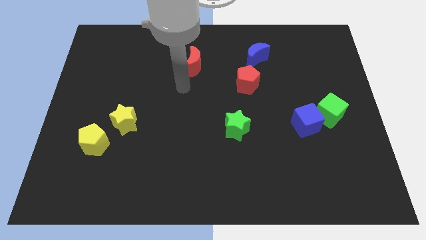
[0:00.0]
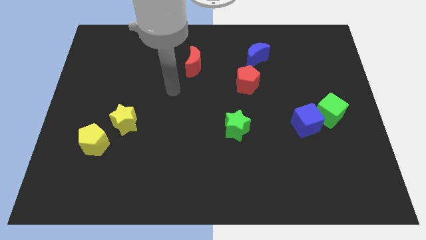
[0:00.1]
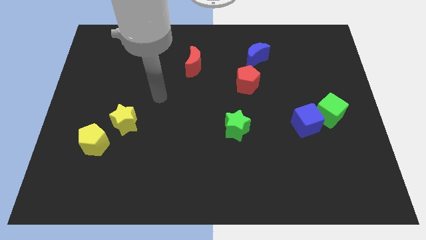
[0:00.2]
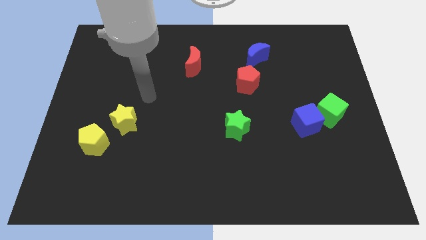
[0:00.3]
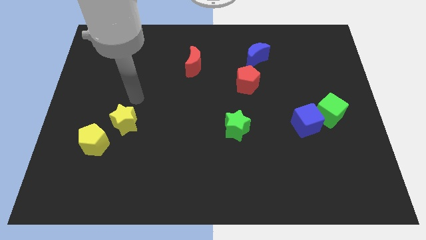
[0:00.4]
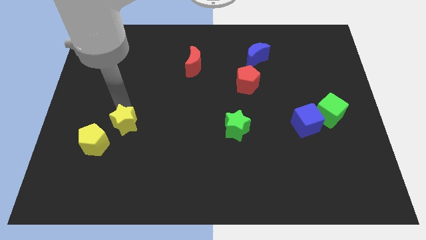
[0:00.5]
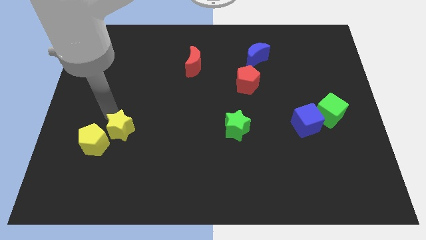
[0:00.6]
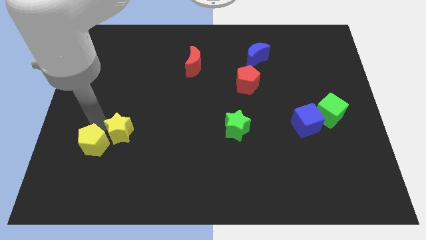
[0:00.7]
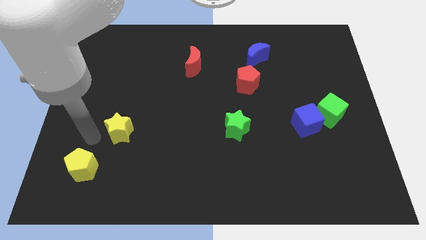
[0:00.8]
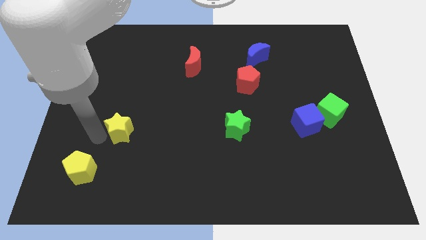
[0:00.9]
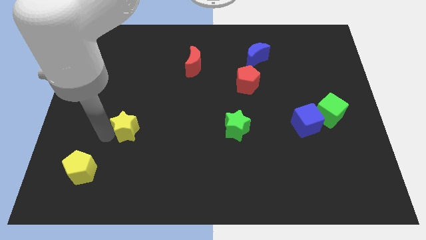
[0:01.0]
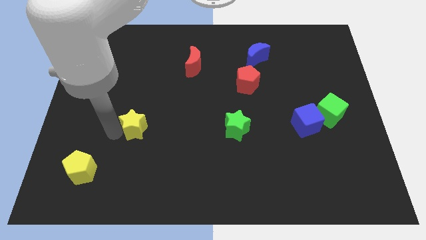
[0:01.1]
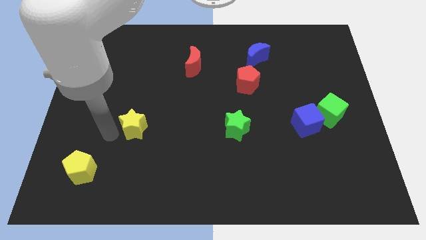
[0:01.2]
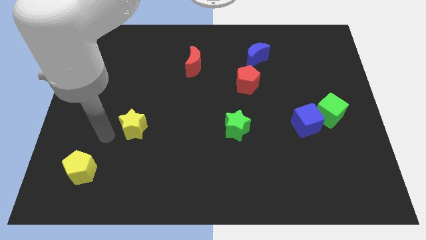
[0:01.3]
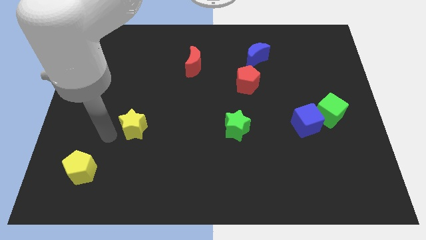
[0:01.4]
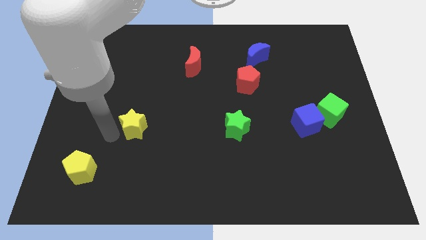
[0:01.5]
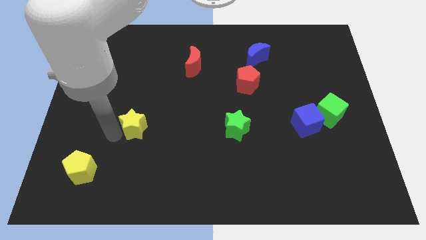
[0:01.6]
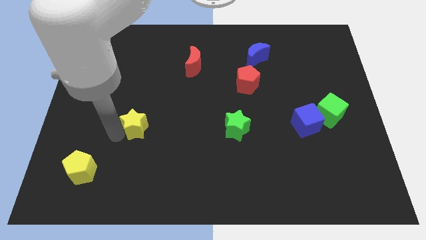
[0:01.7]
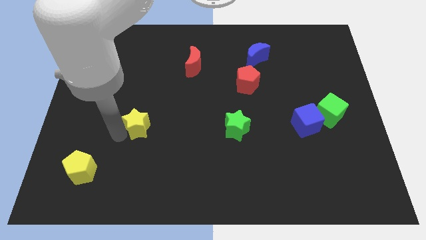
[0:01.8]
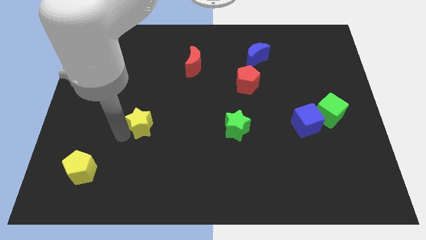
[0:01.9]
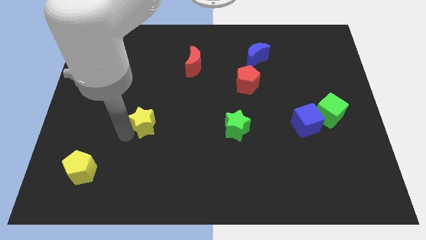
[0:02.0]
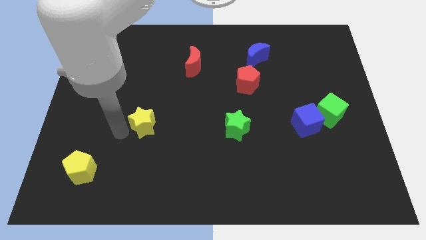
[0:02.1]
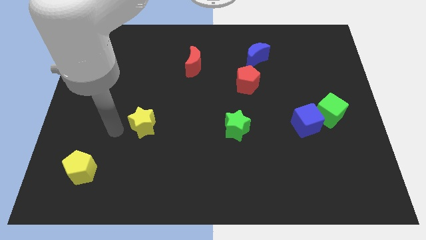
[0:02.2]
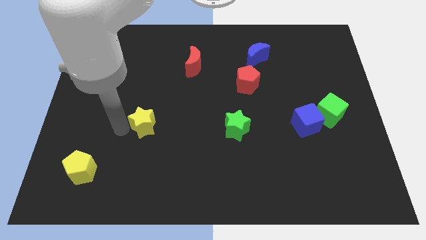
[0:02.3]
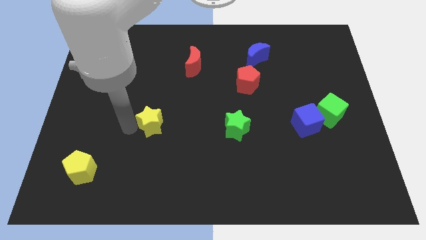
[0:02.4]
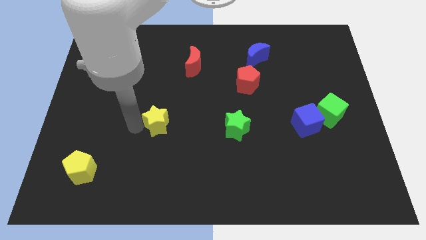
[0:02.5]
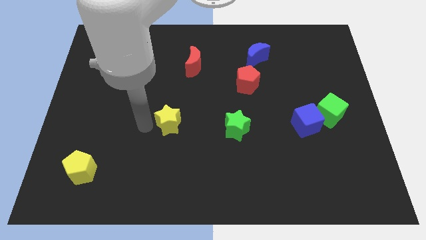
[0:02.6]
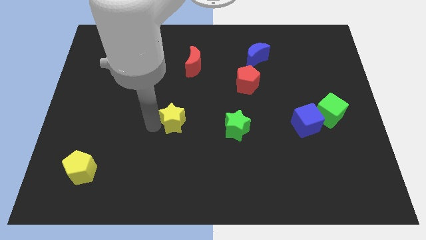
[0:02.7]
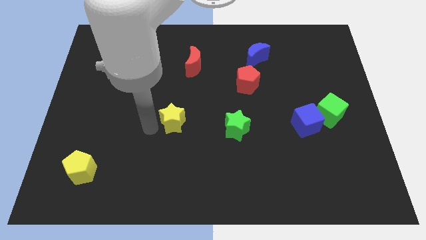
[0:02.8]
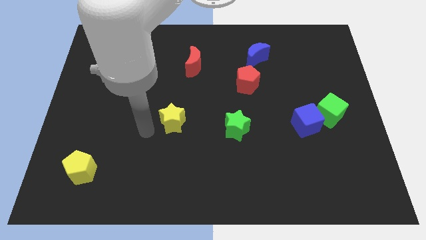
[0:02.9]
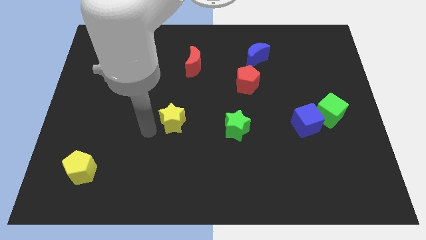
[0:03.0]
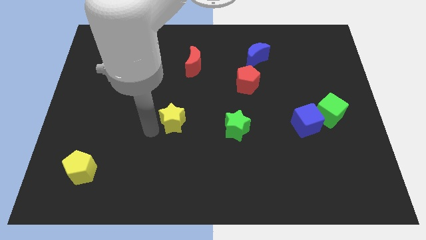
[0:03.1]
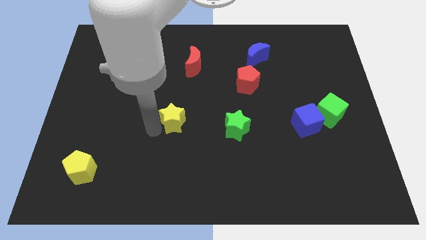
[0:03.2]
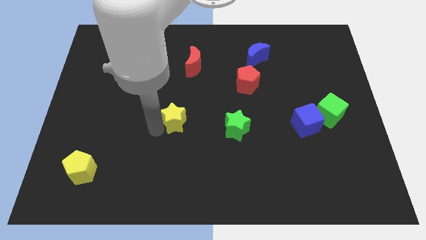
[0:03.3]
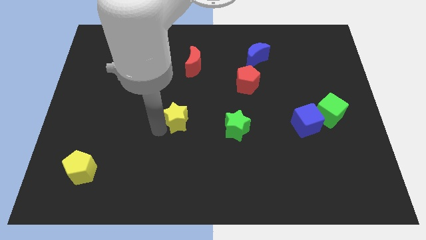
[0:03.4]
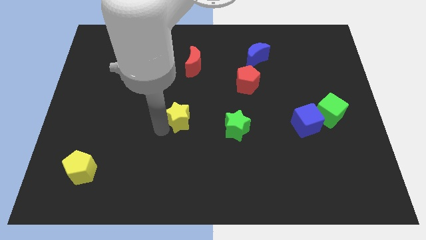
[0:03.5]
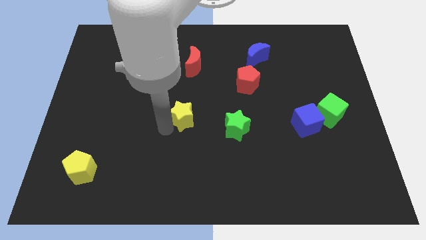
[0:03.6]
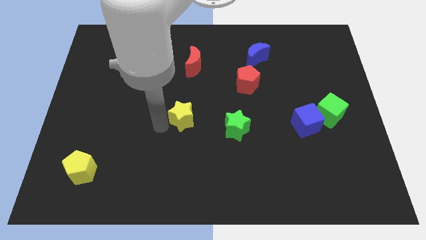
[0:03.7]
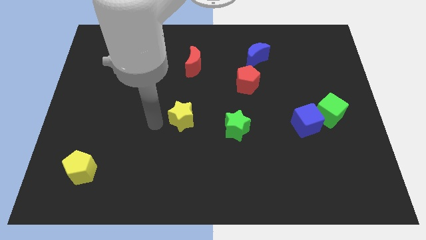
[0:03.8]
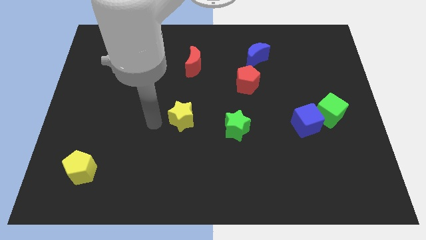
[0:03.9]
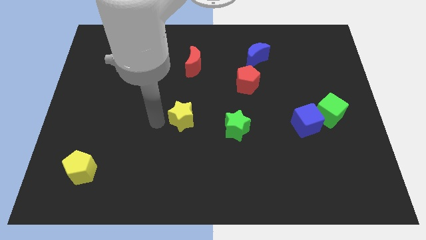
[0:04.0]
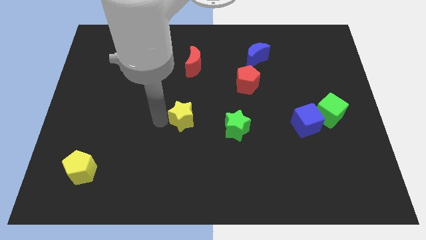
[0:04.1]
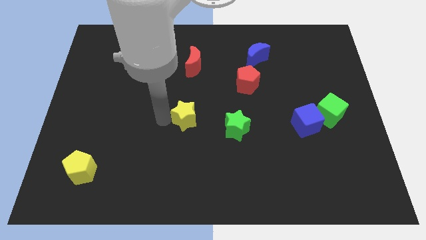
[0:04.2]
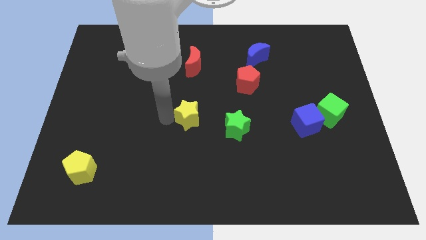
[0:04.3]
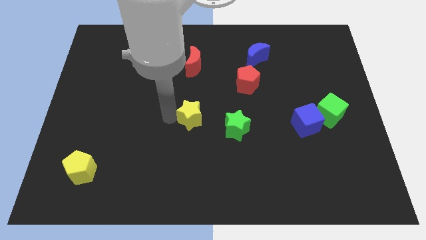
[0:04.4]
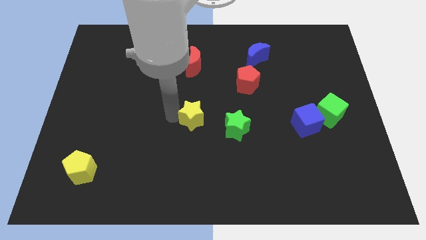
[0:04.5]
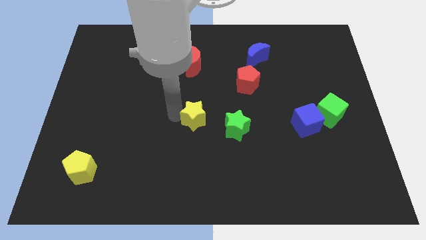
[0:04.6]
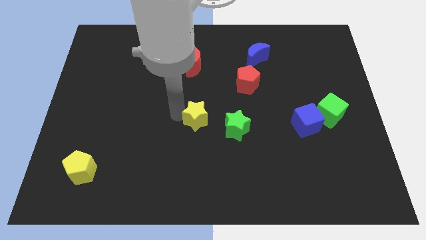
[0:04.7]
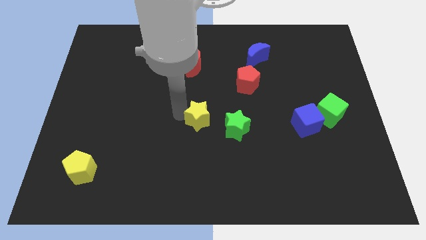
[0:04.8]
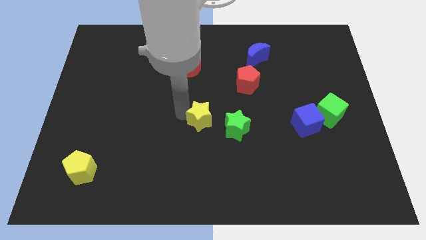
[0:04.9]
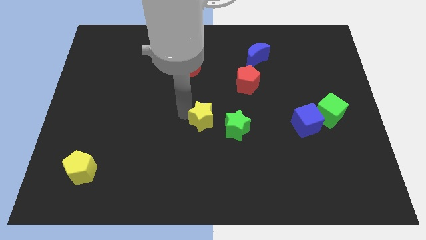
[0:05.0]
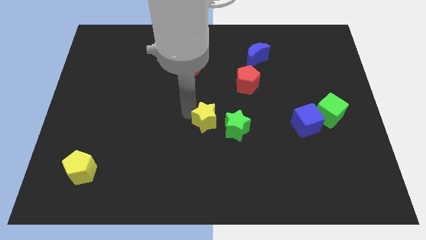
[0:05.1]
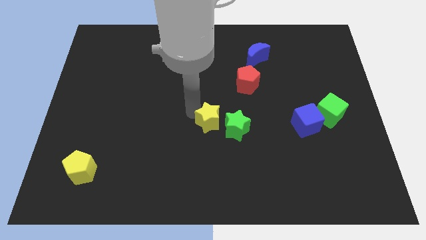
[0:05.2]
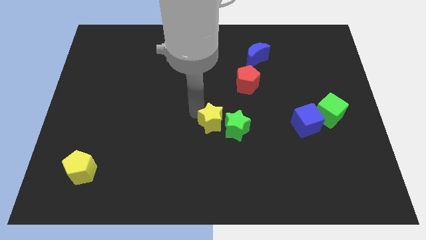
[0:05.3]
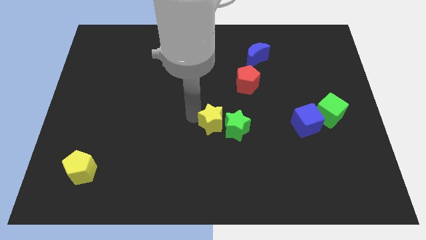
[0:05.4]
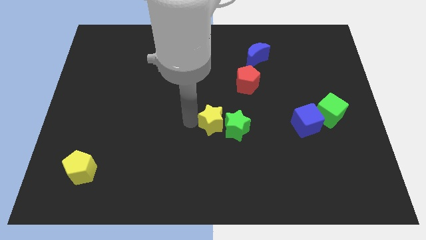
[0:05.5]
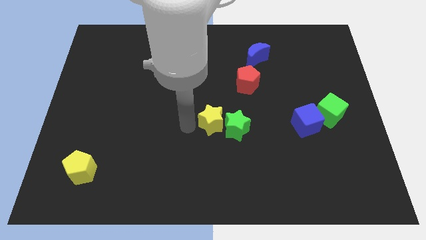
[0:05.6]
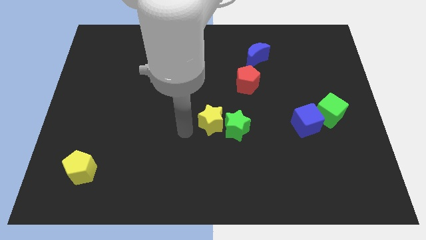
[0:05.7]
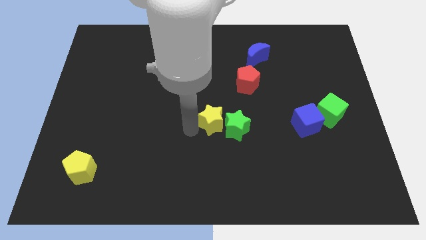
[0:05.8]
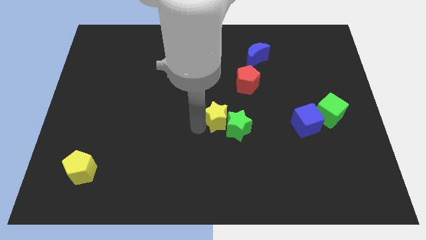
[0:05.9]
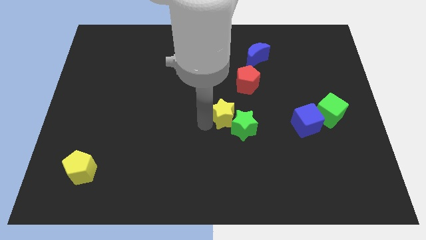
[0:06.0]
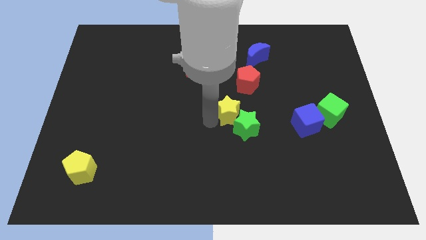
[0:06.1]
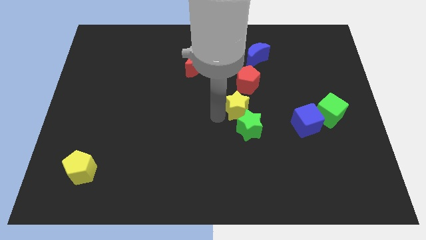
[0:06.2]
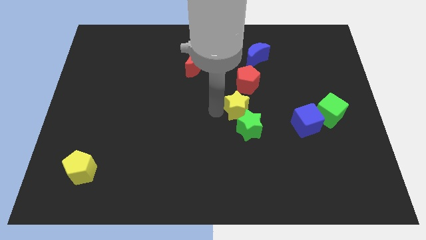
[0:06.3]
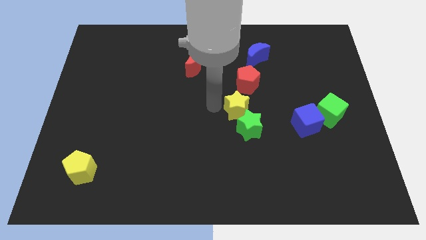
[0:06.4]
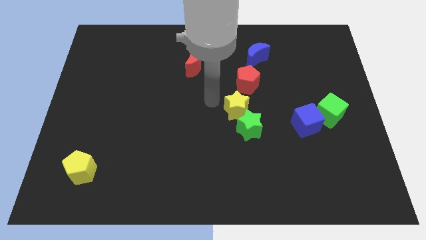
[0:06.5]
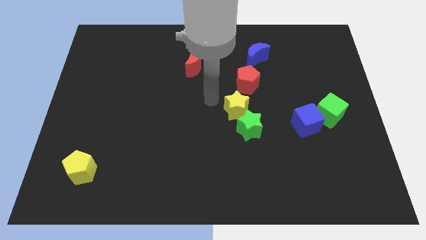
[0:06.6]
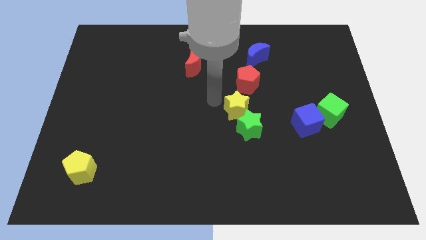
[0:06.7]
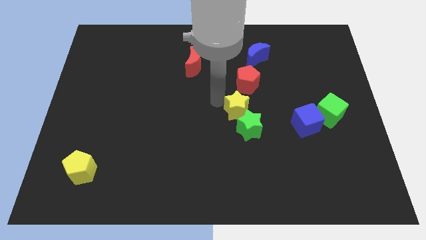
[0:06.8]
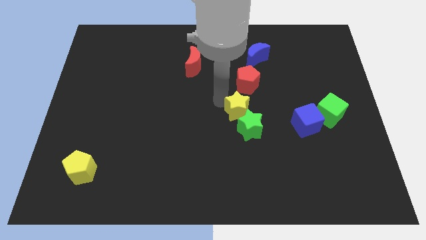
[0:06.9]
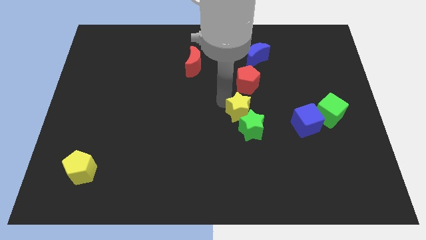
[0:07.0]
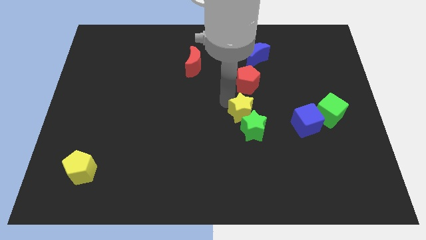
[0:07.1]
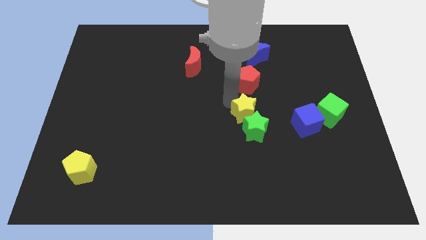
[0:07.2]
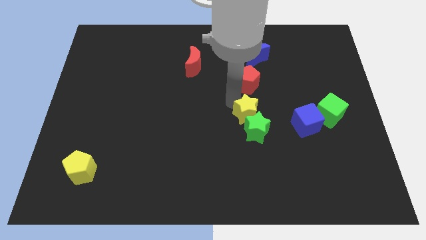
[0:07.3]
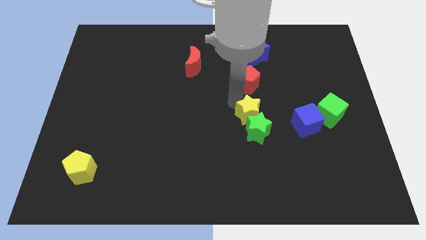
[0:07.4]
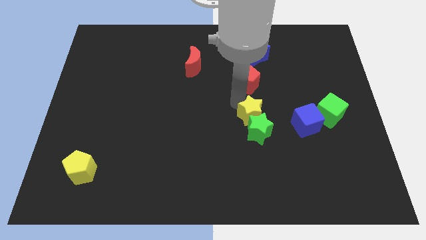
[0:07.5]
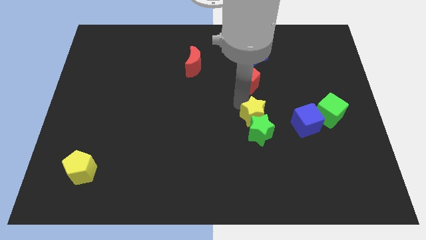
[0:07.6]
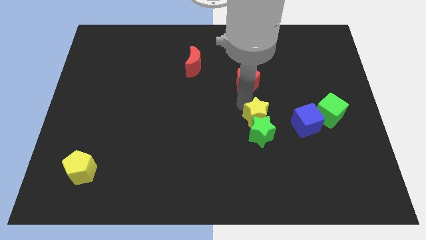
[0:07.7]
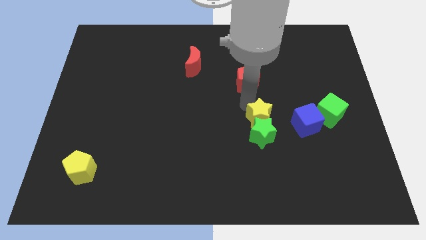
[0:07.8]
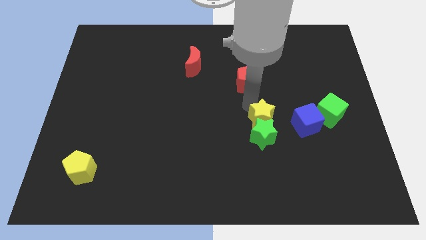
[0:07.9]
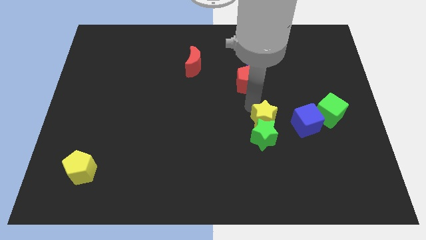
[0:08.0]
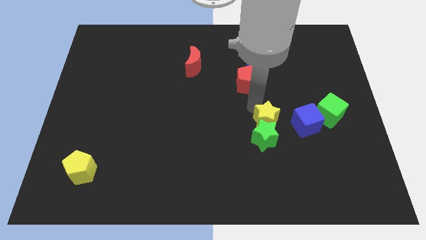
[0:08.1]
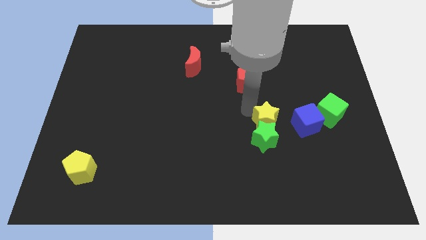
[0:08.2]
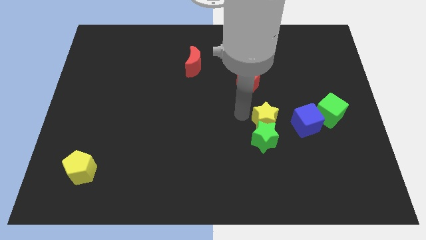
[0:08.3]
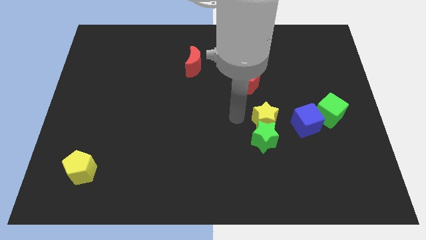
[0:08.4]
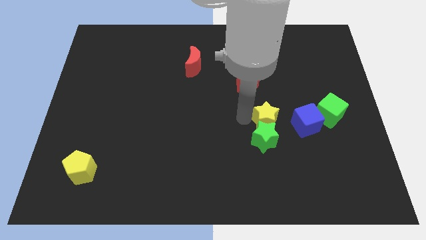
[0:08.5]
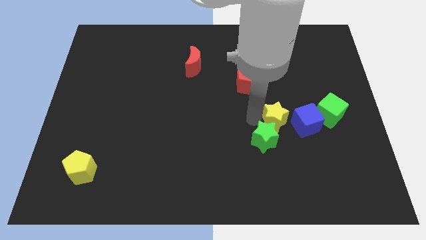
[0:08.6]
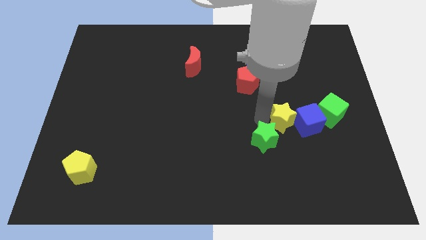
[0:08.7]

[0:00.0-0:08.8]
push the yellow star close to the blue cube
